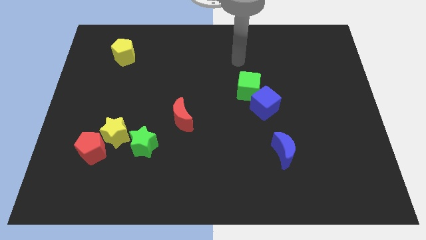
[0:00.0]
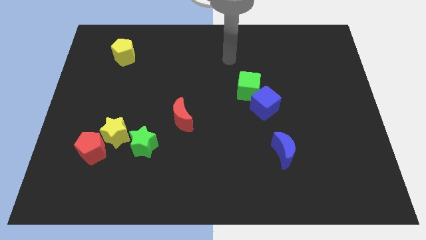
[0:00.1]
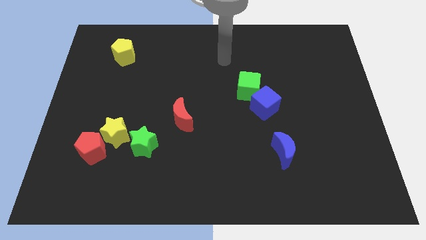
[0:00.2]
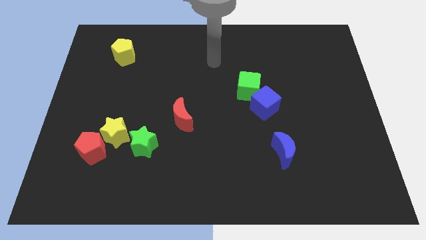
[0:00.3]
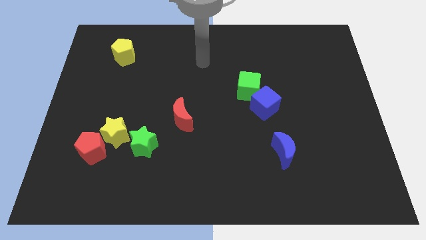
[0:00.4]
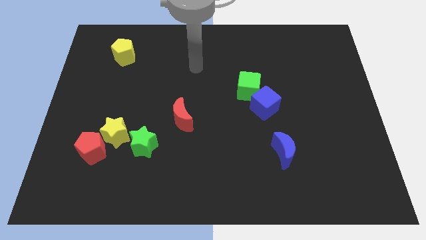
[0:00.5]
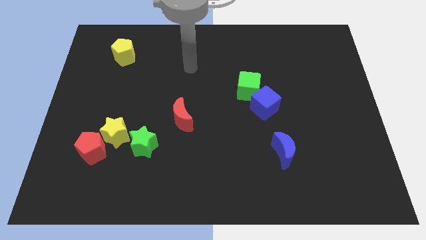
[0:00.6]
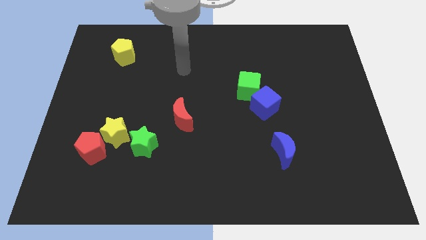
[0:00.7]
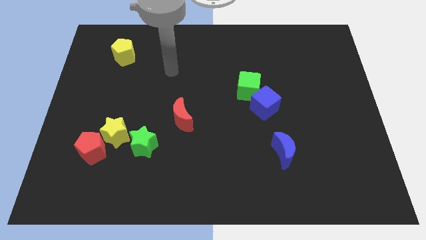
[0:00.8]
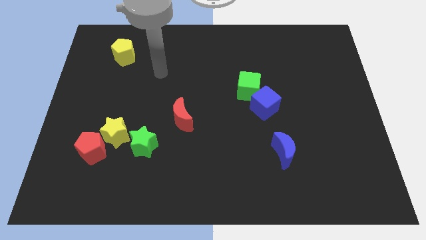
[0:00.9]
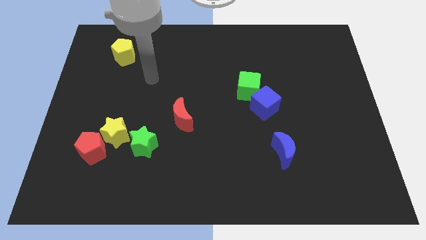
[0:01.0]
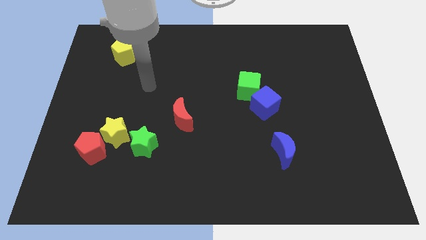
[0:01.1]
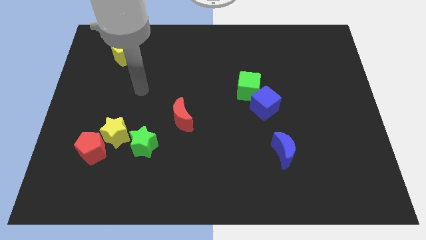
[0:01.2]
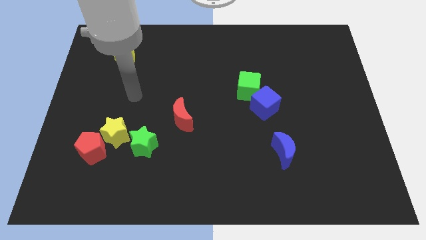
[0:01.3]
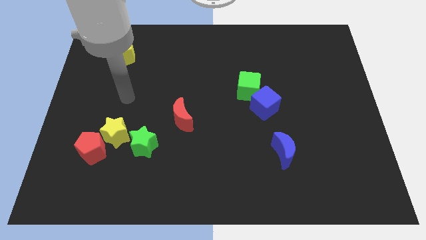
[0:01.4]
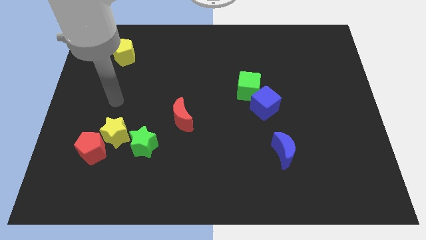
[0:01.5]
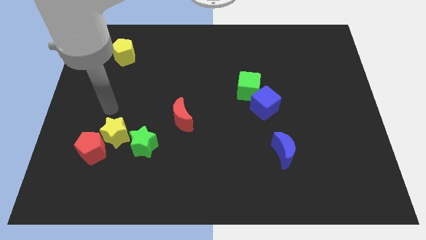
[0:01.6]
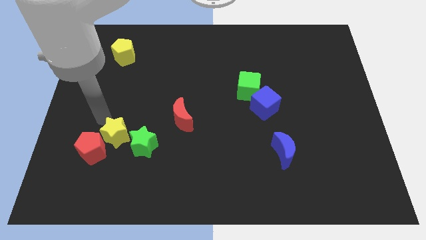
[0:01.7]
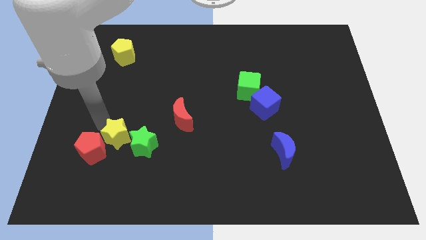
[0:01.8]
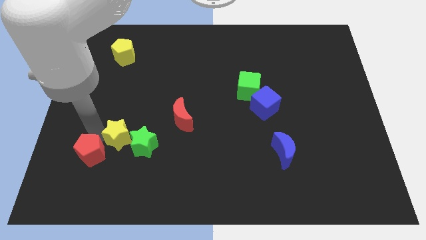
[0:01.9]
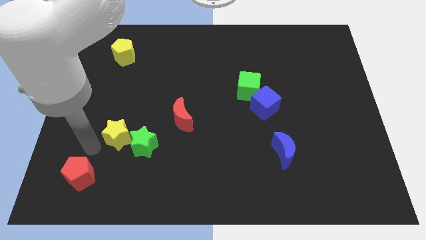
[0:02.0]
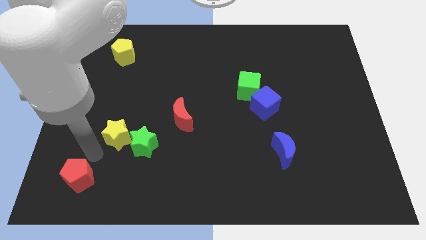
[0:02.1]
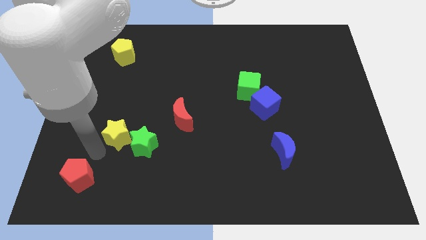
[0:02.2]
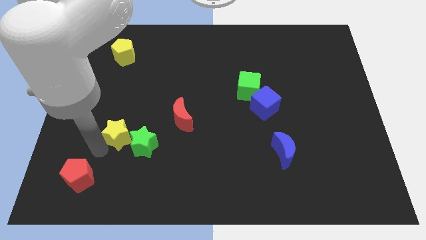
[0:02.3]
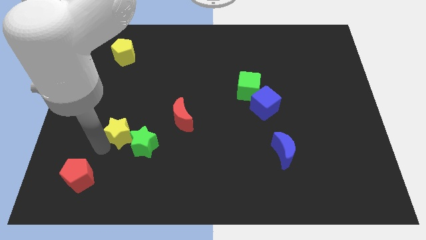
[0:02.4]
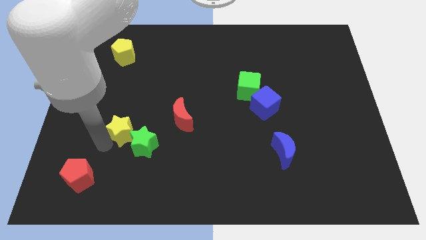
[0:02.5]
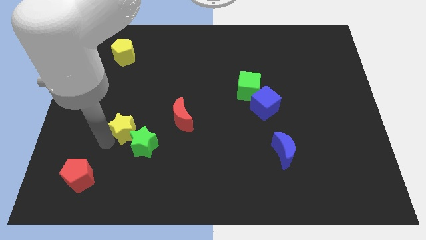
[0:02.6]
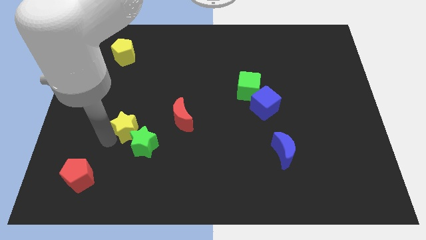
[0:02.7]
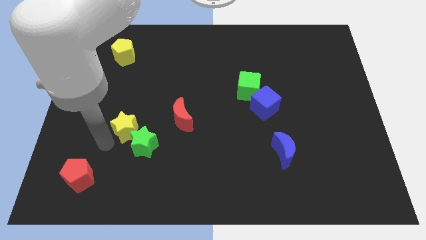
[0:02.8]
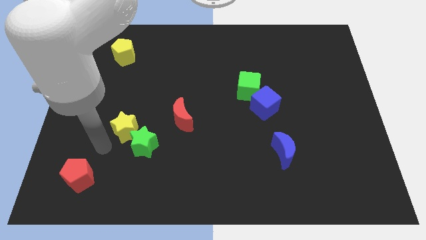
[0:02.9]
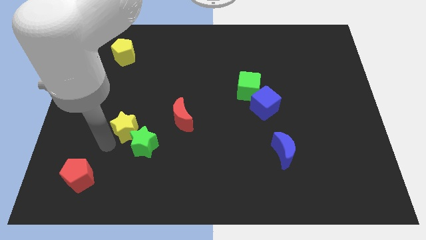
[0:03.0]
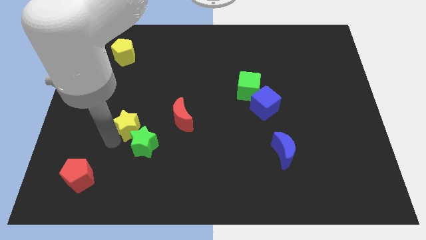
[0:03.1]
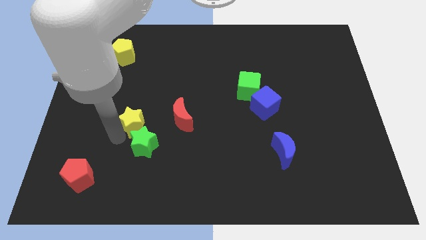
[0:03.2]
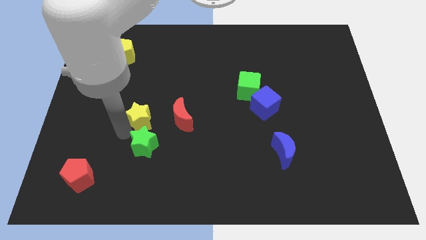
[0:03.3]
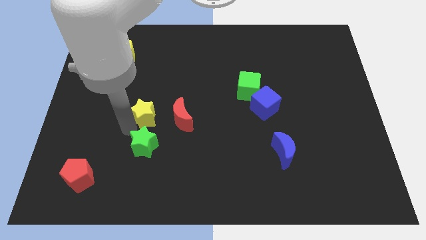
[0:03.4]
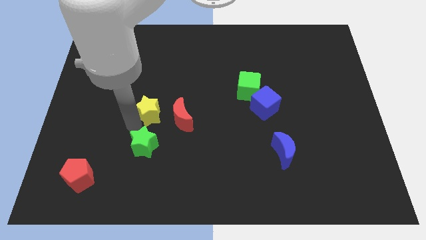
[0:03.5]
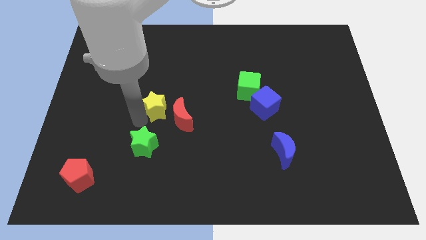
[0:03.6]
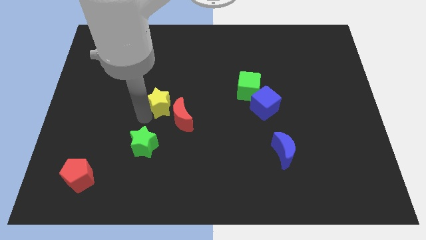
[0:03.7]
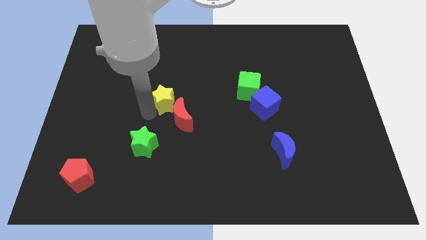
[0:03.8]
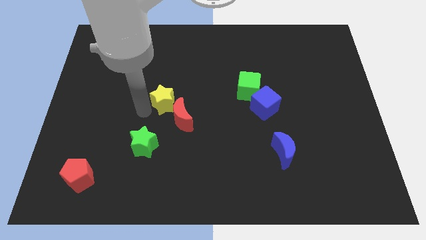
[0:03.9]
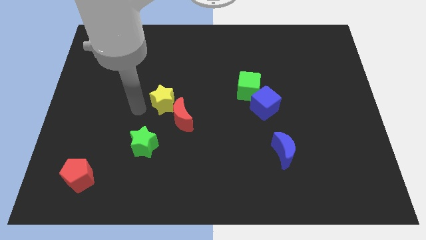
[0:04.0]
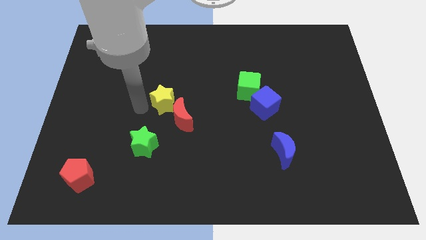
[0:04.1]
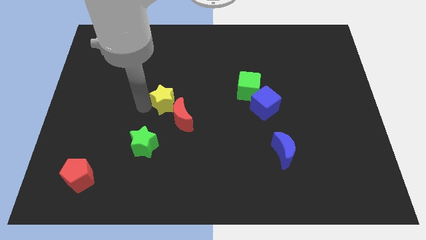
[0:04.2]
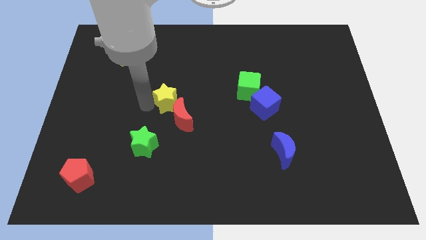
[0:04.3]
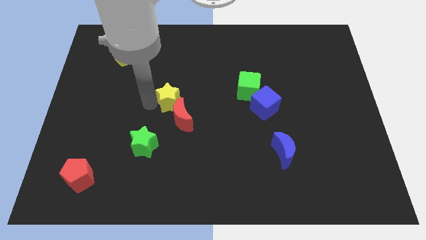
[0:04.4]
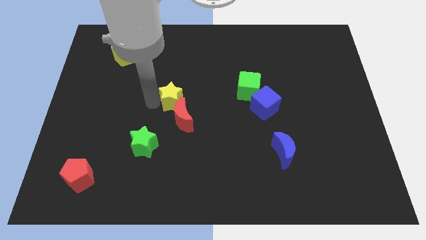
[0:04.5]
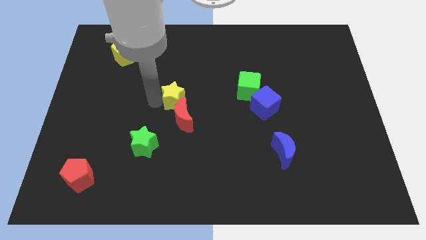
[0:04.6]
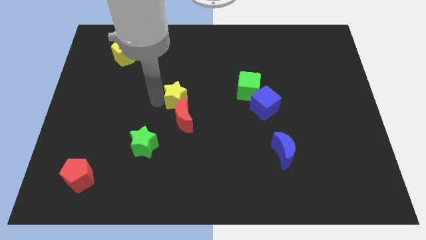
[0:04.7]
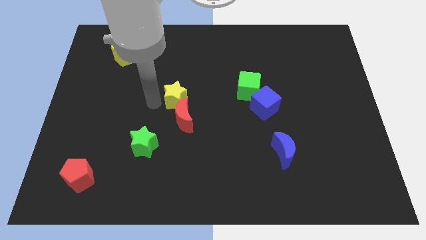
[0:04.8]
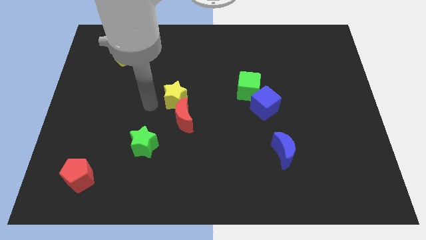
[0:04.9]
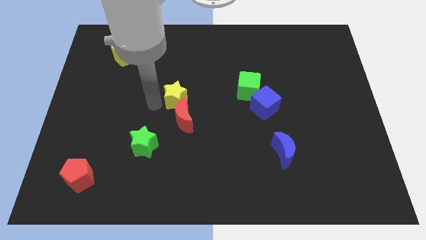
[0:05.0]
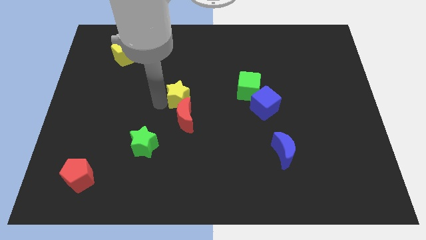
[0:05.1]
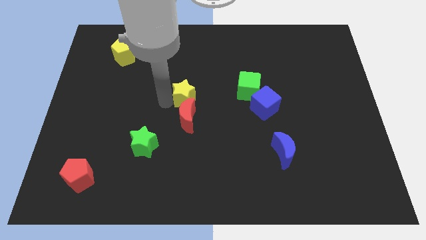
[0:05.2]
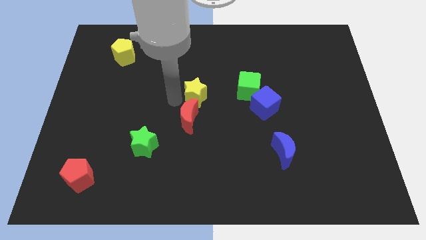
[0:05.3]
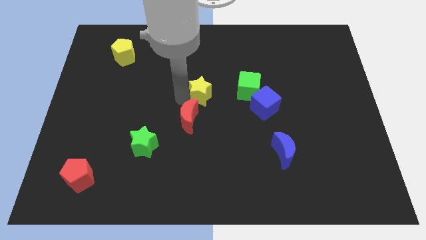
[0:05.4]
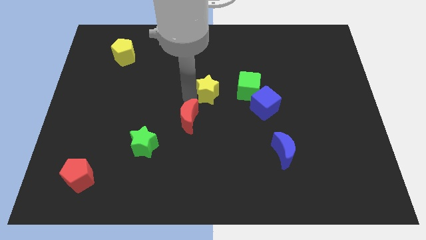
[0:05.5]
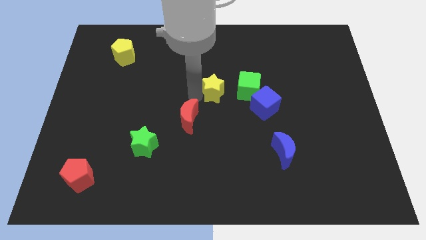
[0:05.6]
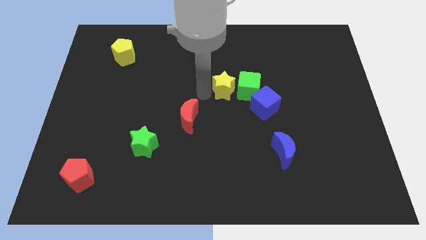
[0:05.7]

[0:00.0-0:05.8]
slide the yellow star to the green cube
